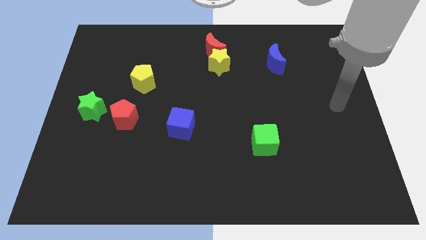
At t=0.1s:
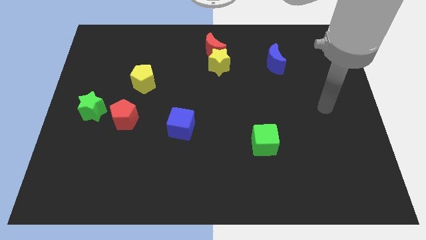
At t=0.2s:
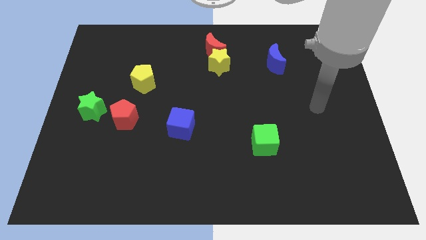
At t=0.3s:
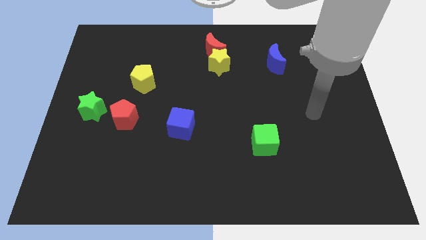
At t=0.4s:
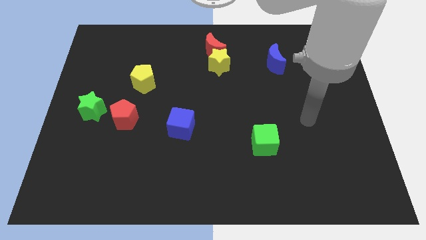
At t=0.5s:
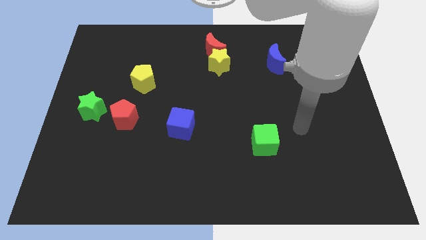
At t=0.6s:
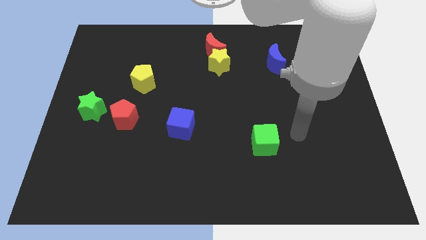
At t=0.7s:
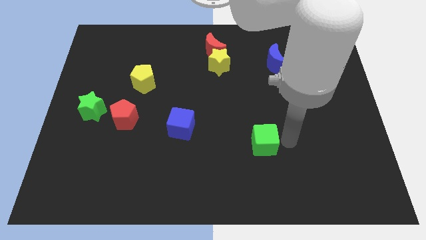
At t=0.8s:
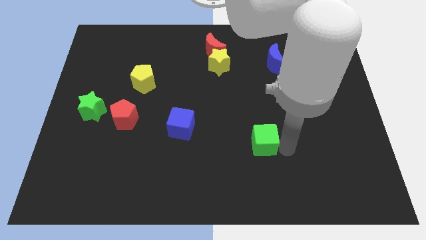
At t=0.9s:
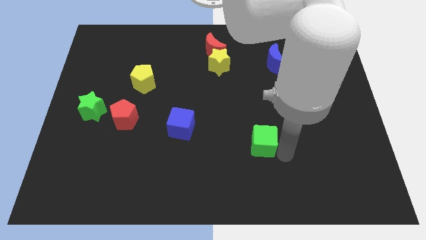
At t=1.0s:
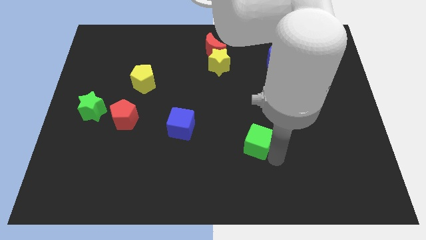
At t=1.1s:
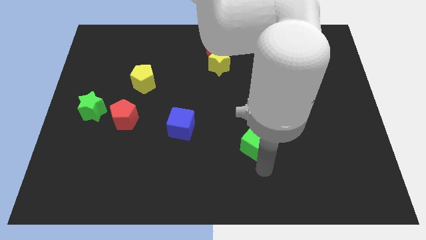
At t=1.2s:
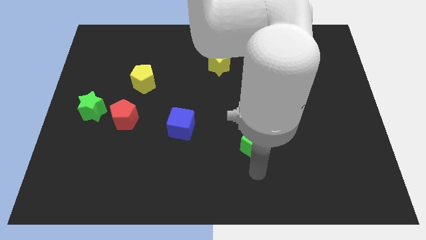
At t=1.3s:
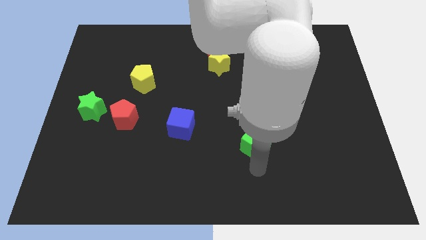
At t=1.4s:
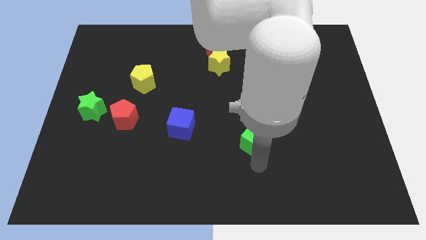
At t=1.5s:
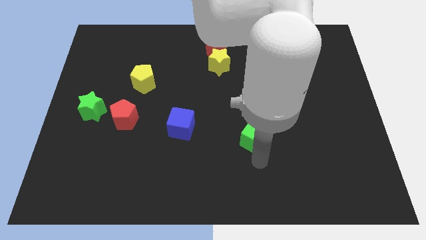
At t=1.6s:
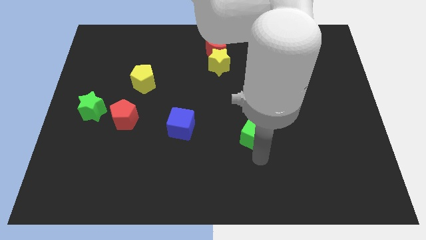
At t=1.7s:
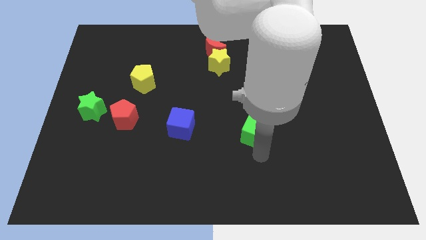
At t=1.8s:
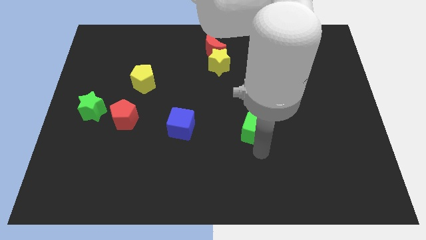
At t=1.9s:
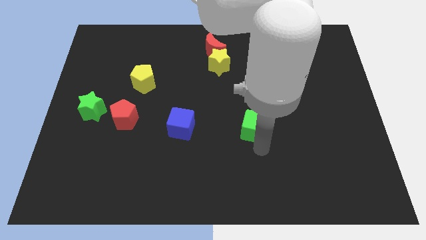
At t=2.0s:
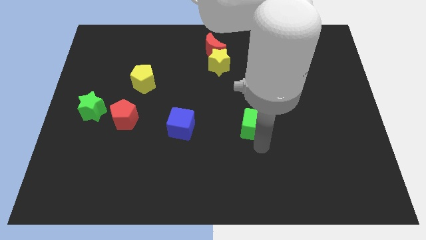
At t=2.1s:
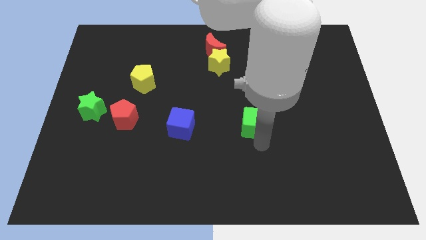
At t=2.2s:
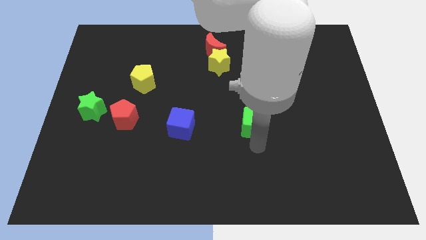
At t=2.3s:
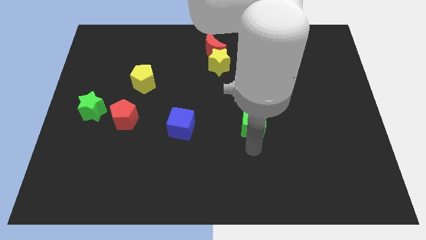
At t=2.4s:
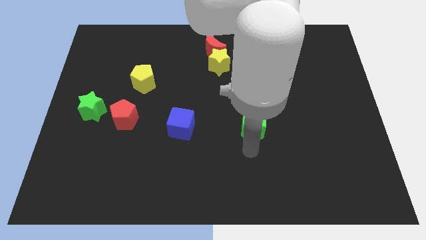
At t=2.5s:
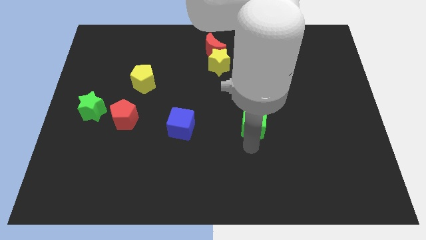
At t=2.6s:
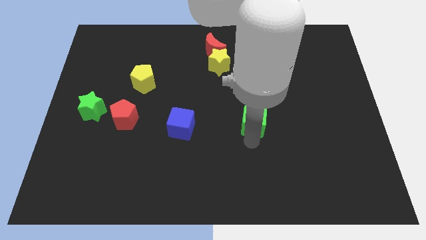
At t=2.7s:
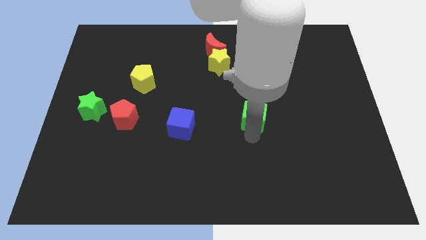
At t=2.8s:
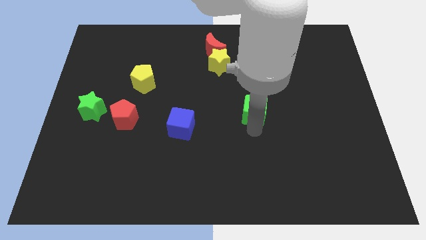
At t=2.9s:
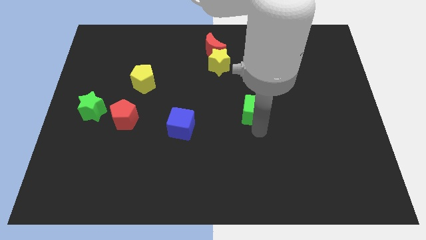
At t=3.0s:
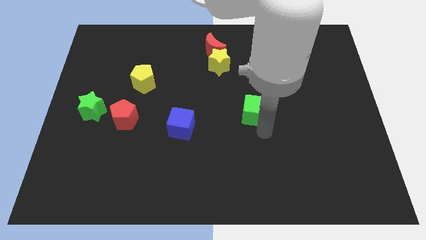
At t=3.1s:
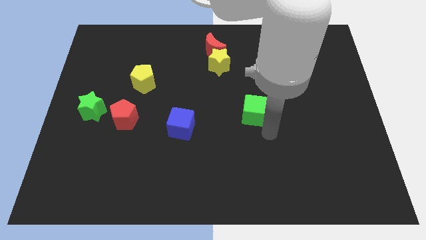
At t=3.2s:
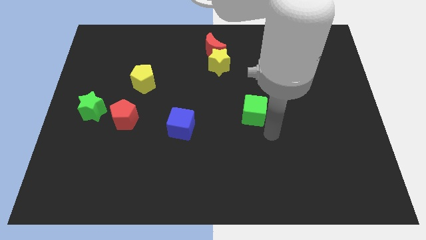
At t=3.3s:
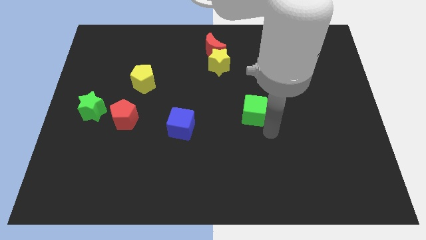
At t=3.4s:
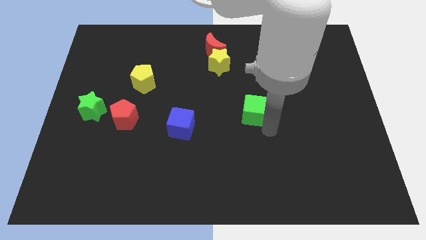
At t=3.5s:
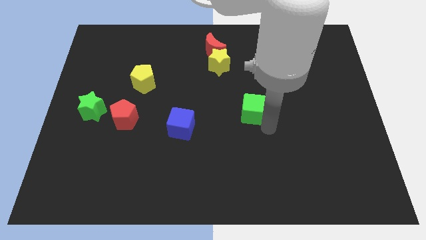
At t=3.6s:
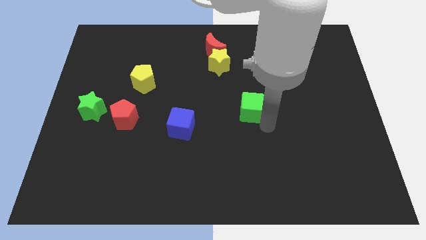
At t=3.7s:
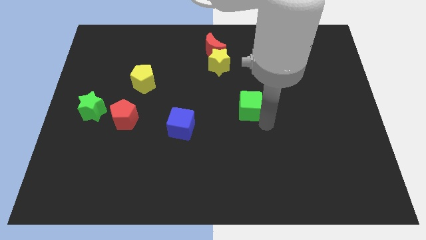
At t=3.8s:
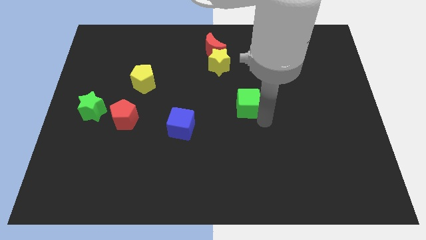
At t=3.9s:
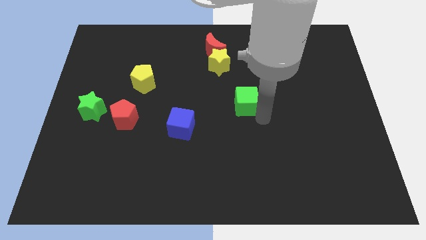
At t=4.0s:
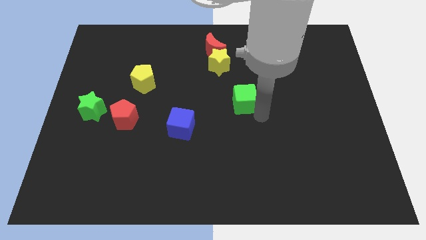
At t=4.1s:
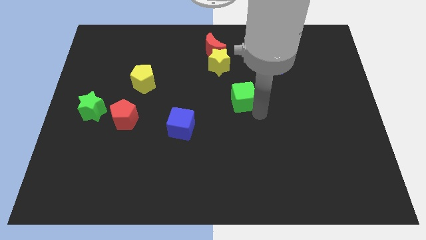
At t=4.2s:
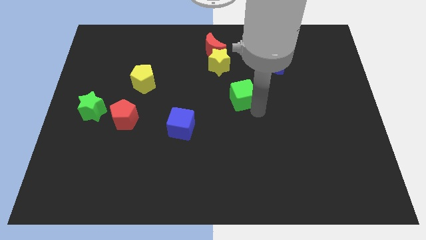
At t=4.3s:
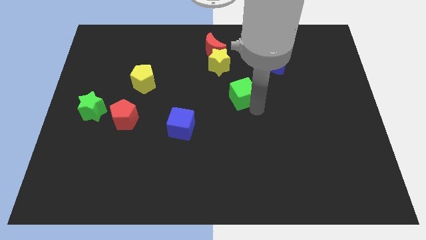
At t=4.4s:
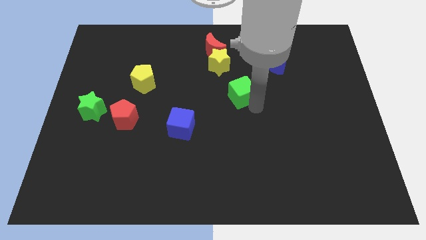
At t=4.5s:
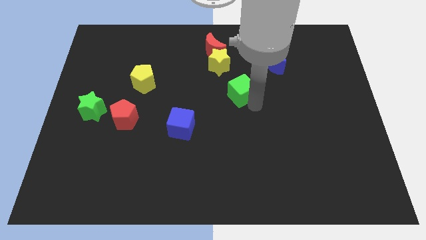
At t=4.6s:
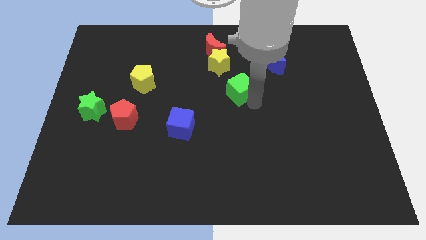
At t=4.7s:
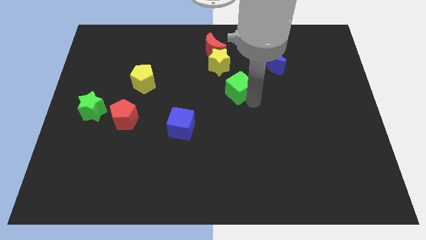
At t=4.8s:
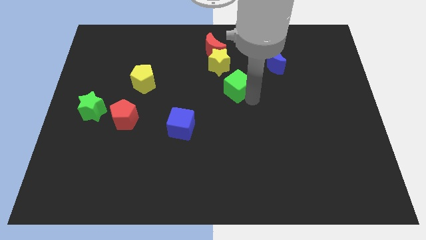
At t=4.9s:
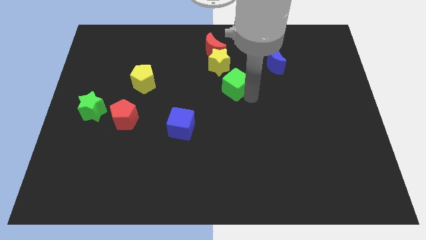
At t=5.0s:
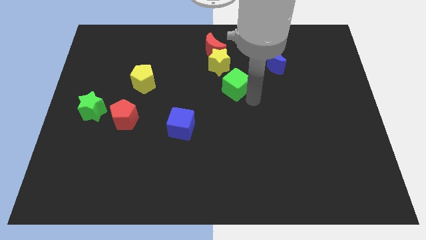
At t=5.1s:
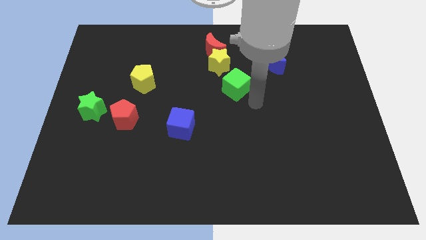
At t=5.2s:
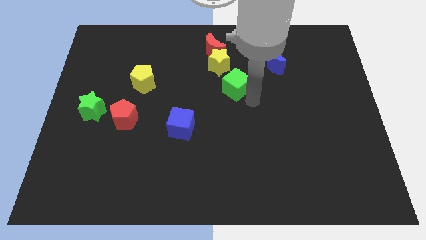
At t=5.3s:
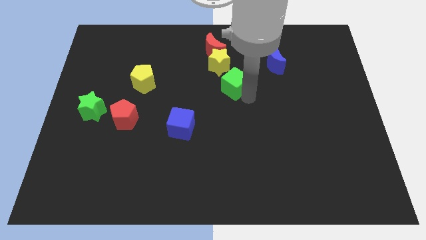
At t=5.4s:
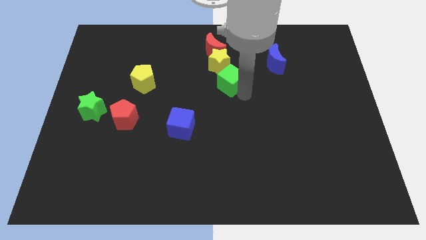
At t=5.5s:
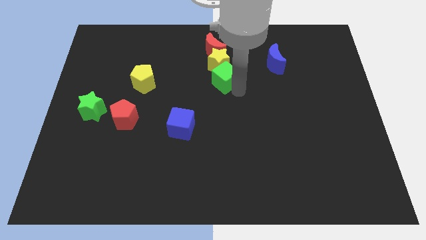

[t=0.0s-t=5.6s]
put the green cube towards the yellow star

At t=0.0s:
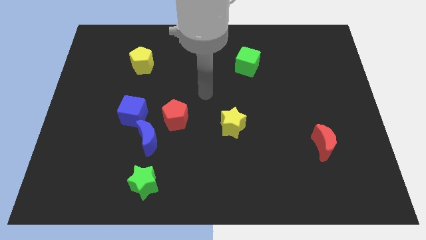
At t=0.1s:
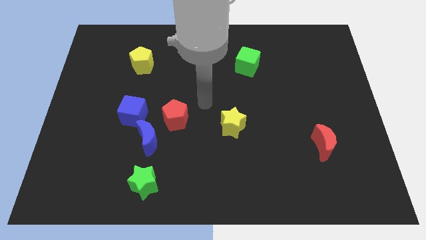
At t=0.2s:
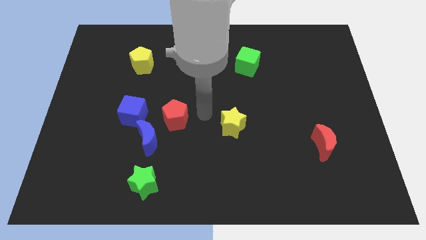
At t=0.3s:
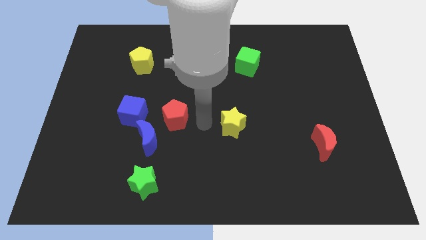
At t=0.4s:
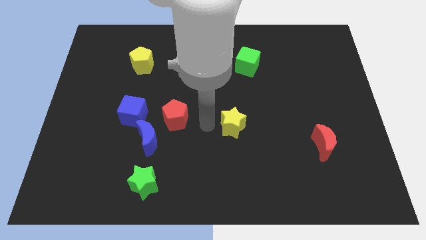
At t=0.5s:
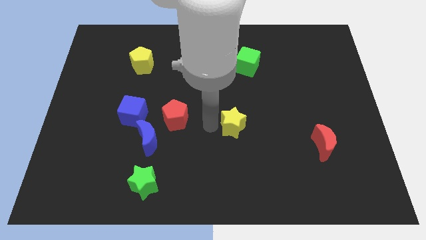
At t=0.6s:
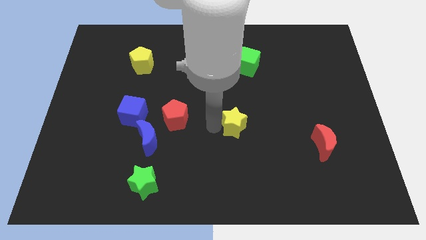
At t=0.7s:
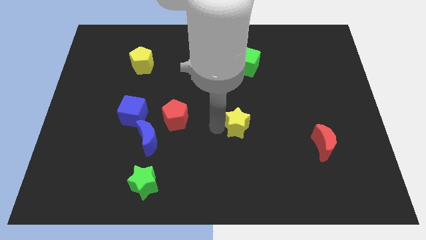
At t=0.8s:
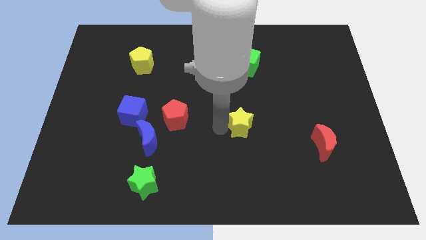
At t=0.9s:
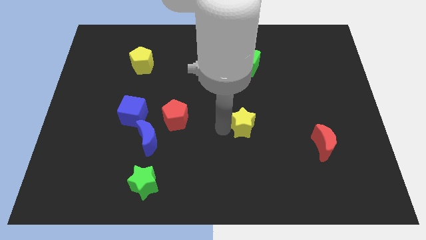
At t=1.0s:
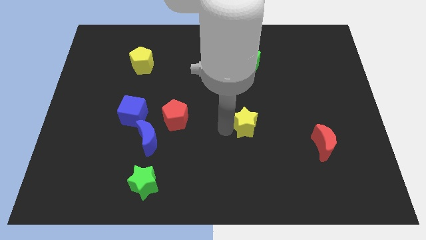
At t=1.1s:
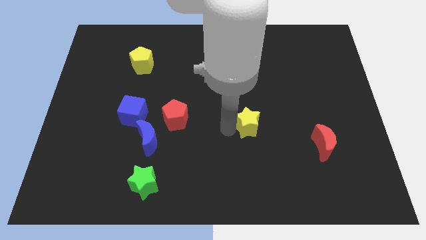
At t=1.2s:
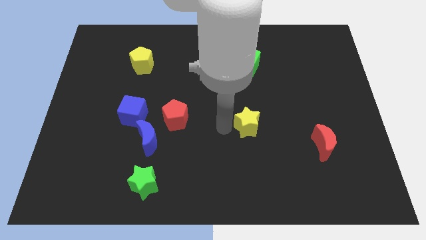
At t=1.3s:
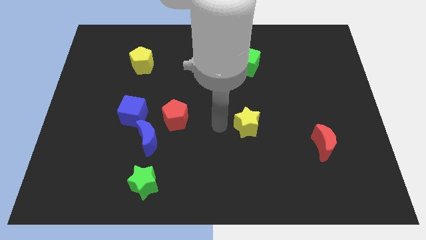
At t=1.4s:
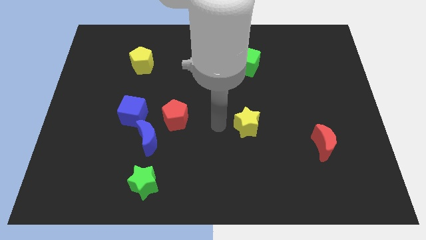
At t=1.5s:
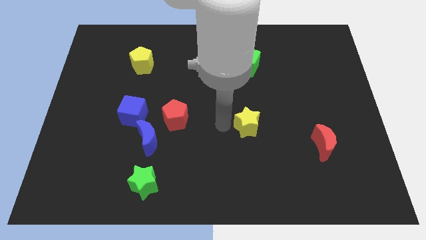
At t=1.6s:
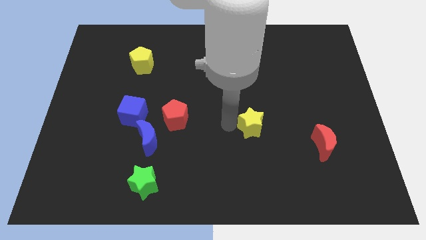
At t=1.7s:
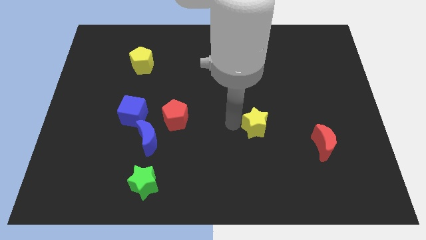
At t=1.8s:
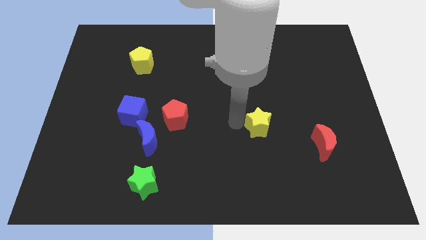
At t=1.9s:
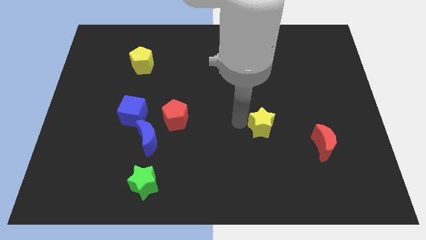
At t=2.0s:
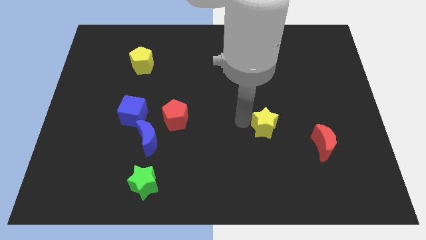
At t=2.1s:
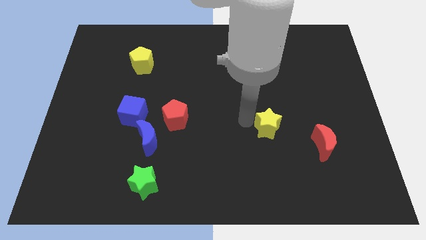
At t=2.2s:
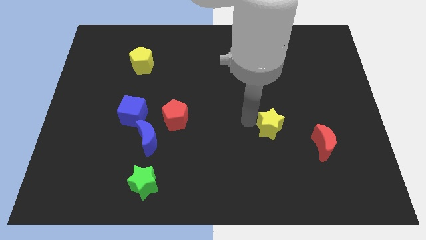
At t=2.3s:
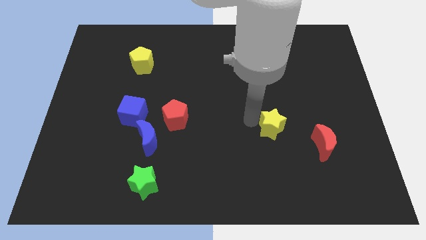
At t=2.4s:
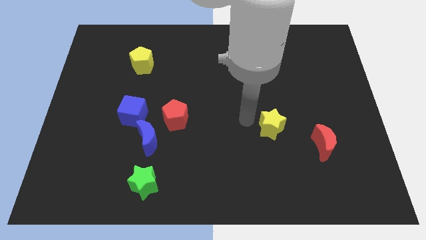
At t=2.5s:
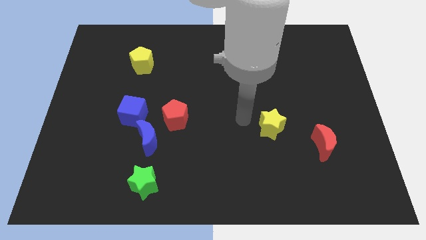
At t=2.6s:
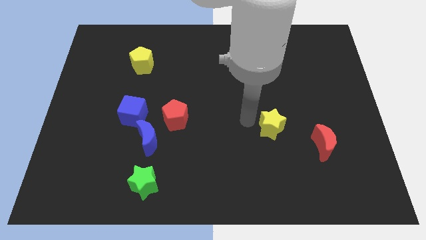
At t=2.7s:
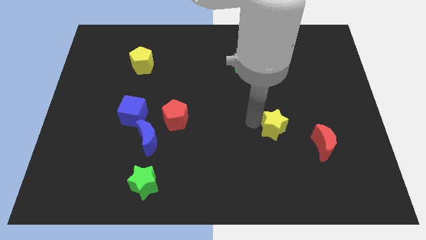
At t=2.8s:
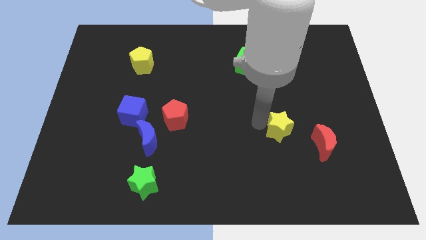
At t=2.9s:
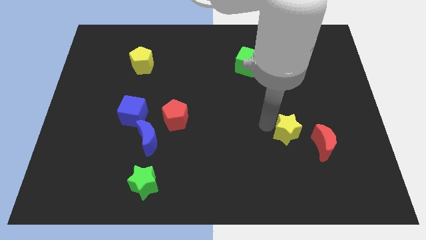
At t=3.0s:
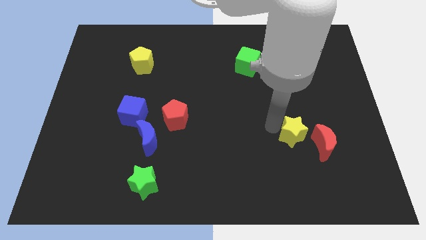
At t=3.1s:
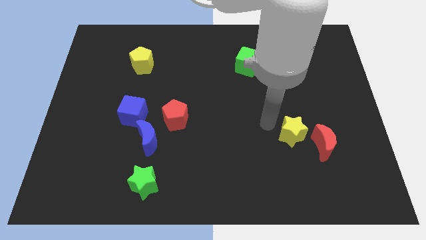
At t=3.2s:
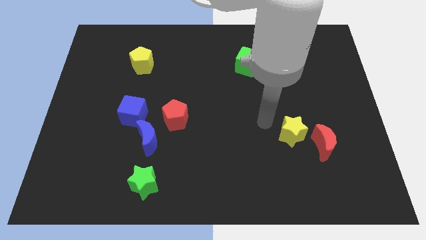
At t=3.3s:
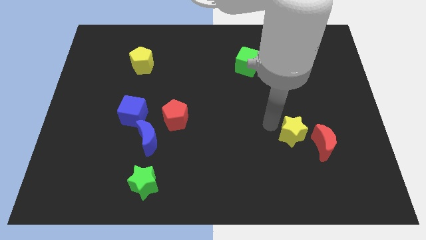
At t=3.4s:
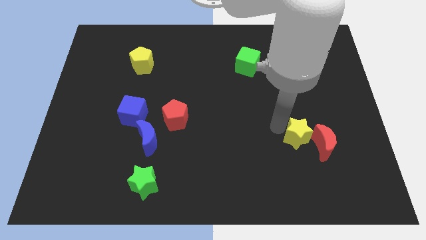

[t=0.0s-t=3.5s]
slide the yellow star close to the red moon
